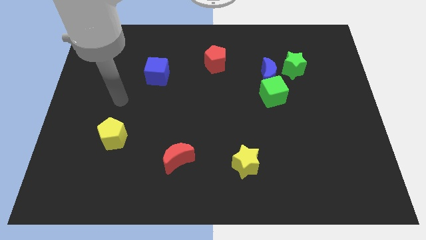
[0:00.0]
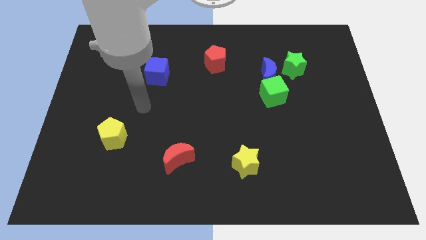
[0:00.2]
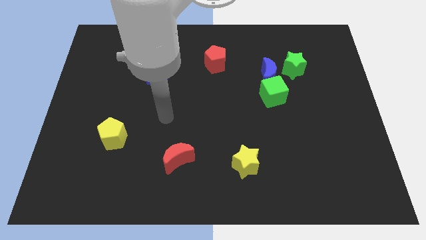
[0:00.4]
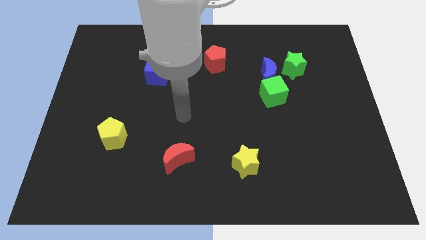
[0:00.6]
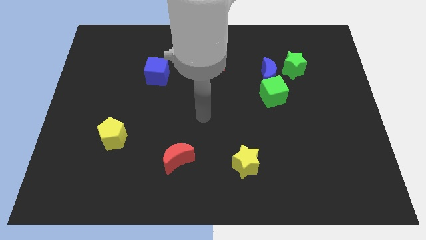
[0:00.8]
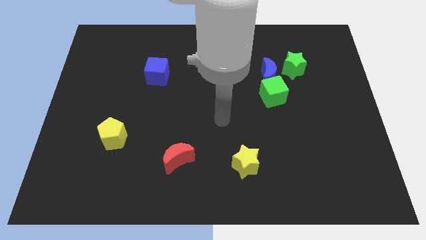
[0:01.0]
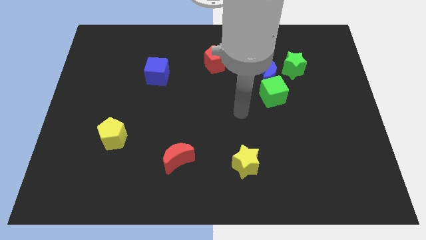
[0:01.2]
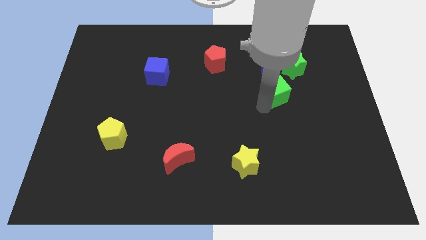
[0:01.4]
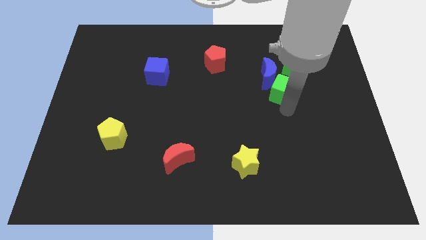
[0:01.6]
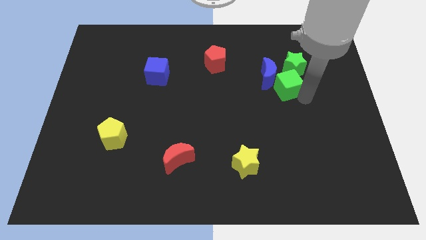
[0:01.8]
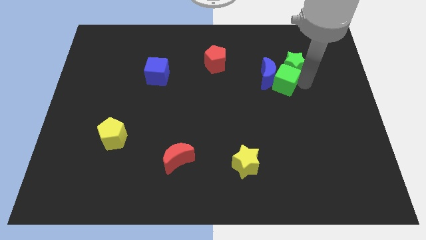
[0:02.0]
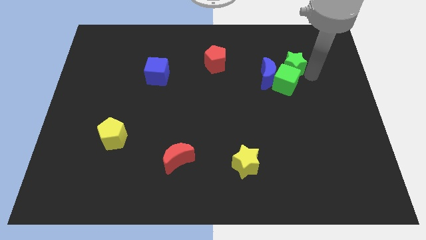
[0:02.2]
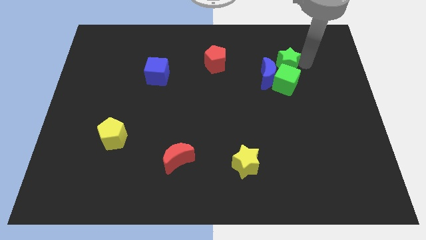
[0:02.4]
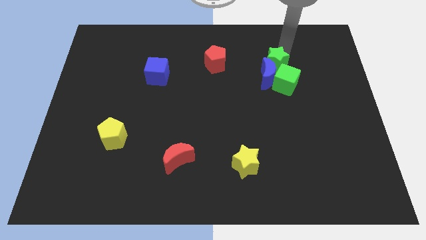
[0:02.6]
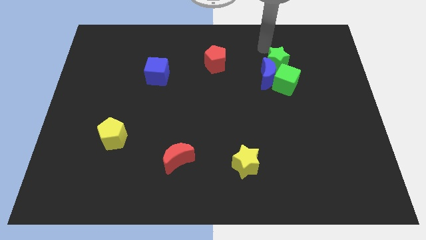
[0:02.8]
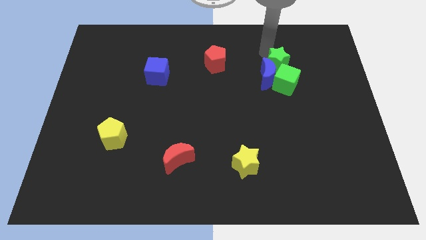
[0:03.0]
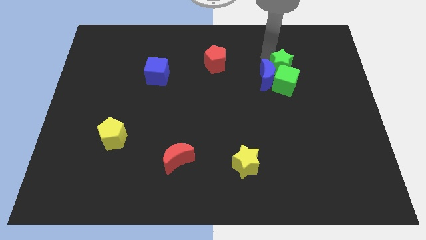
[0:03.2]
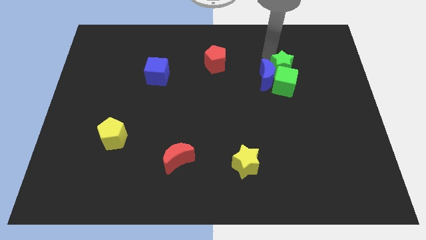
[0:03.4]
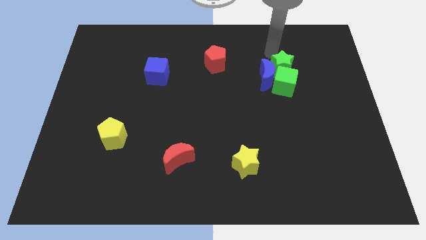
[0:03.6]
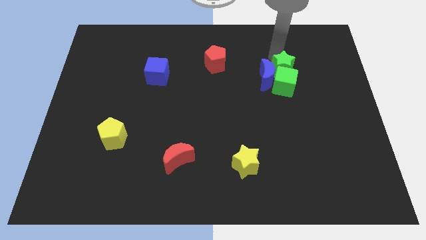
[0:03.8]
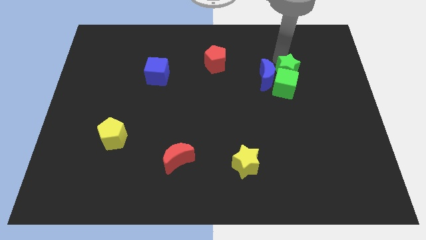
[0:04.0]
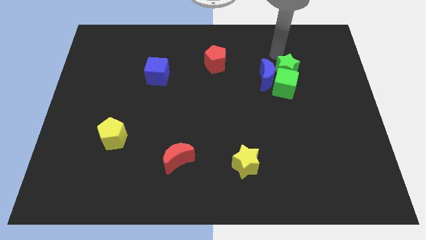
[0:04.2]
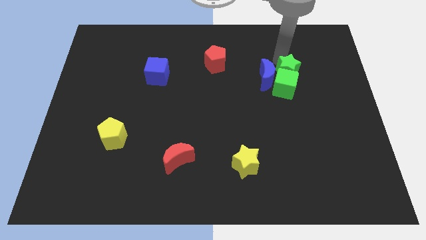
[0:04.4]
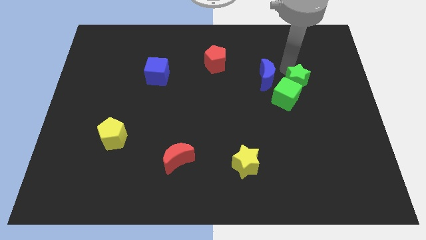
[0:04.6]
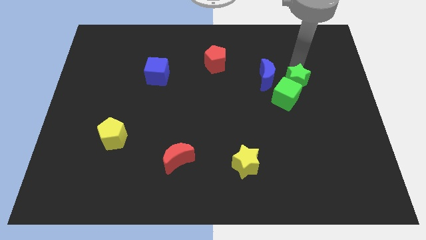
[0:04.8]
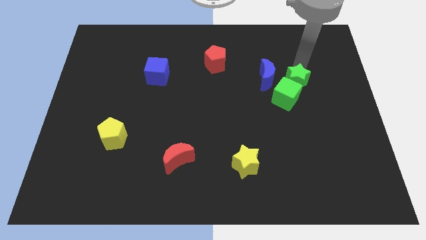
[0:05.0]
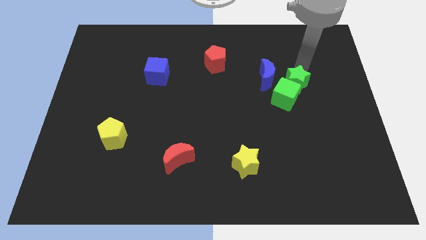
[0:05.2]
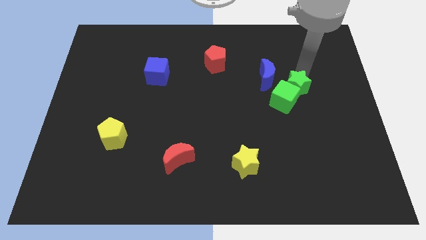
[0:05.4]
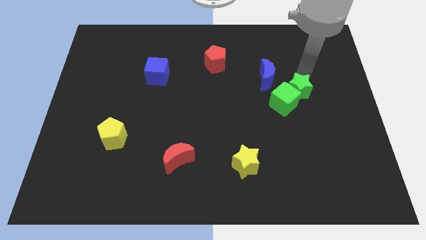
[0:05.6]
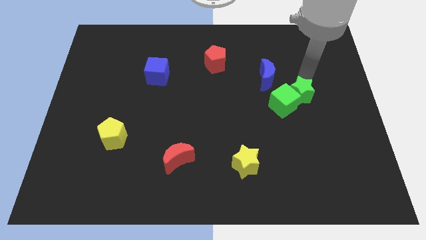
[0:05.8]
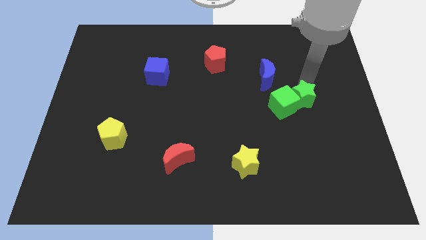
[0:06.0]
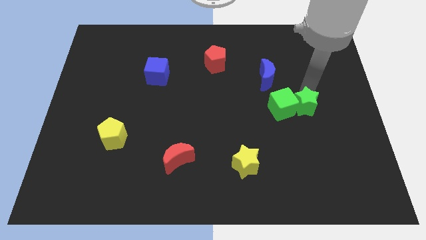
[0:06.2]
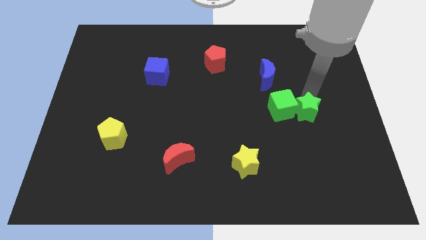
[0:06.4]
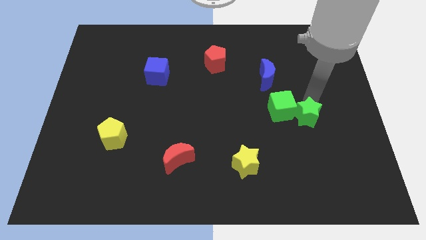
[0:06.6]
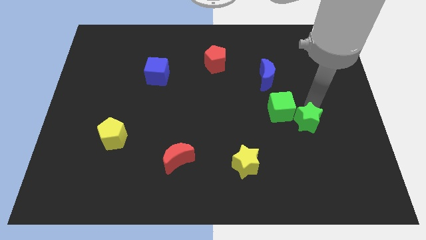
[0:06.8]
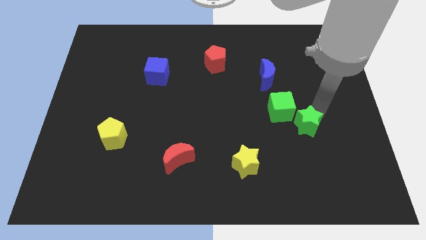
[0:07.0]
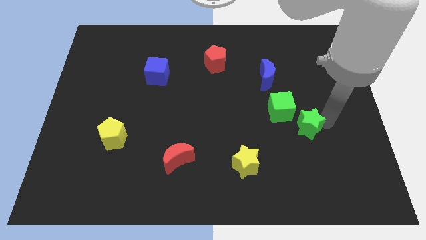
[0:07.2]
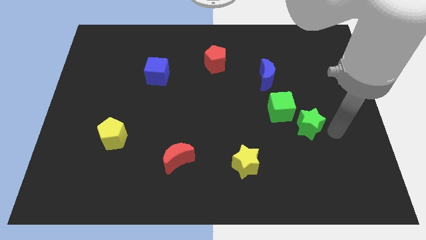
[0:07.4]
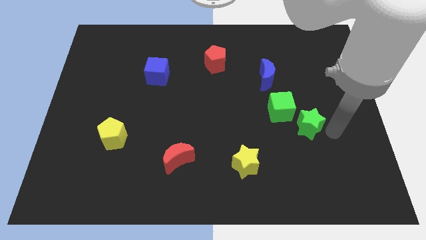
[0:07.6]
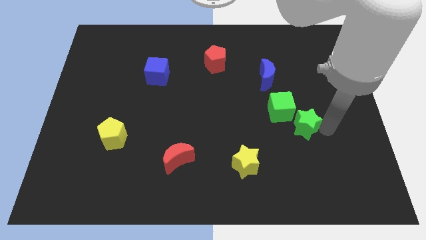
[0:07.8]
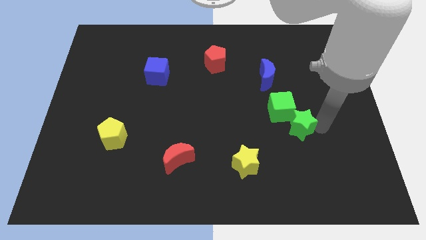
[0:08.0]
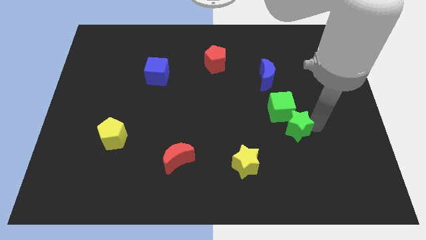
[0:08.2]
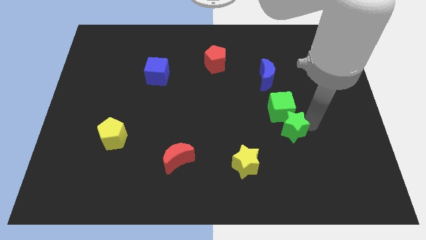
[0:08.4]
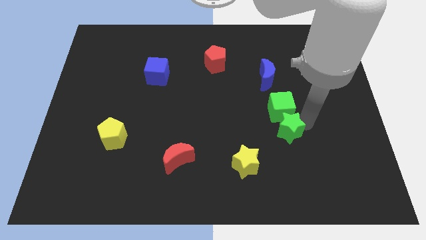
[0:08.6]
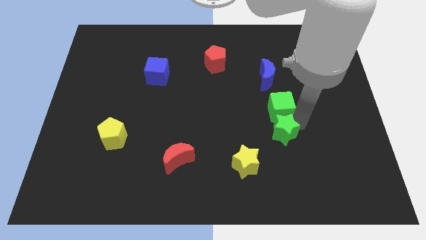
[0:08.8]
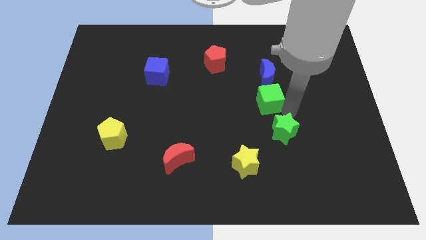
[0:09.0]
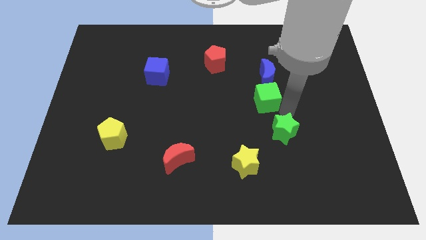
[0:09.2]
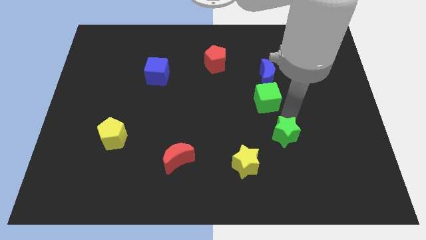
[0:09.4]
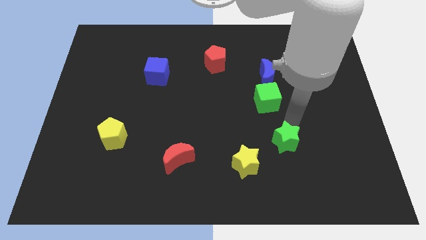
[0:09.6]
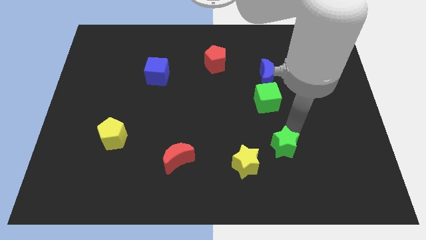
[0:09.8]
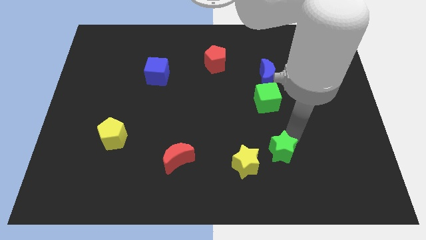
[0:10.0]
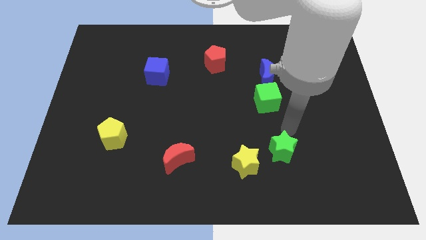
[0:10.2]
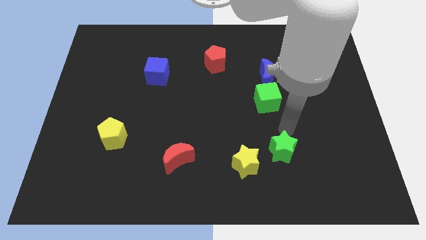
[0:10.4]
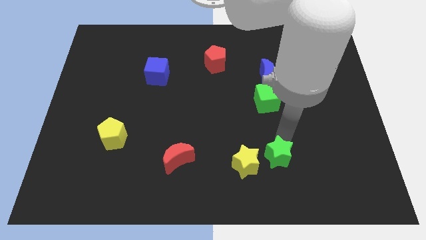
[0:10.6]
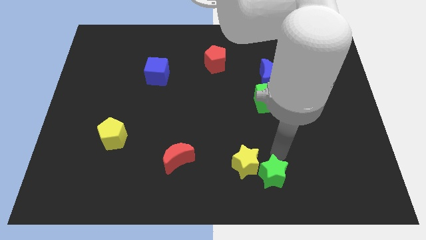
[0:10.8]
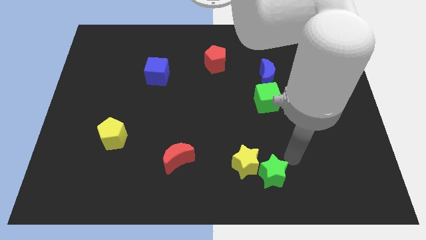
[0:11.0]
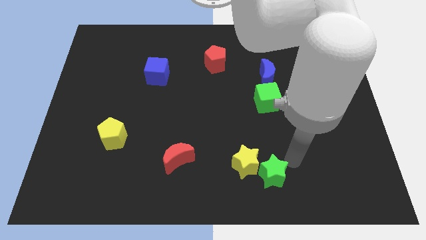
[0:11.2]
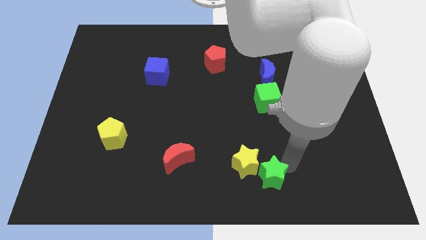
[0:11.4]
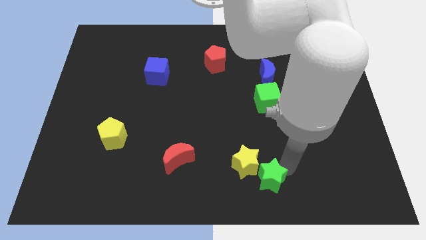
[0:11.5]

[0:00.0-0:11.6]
slide the green star to the bottom

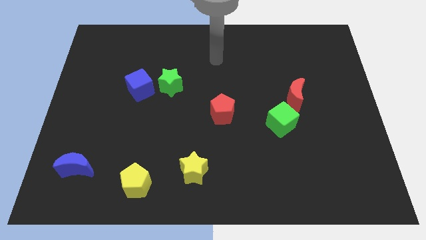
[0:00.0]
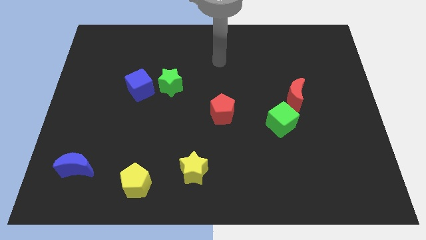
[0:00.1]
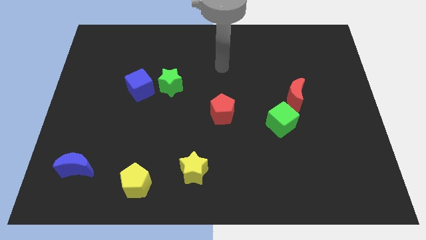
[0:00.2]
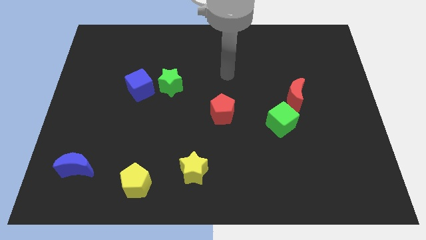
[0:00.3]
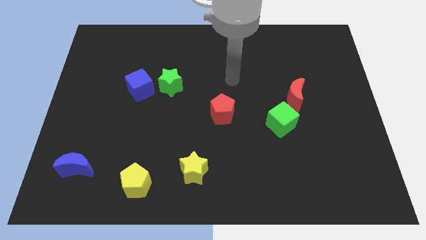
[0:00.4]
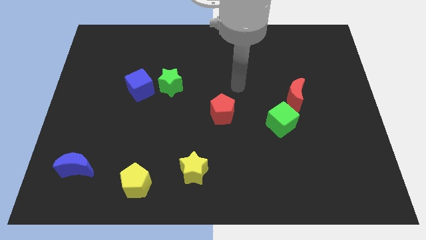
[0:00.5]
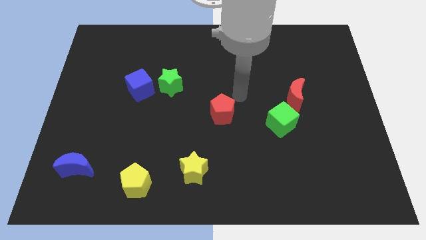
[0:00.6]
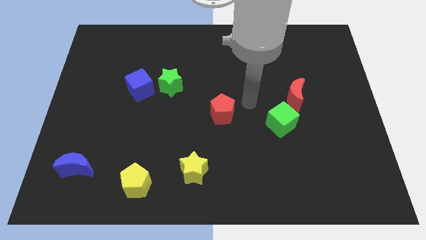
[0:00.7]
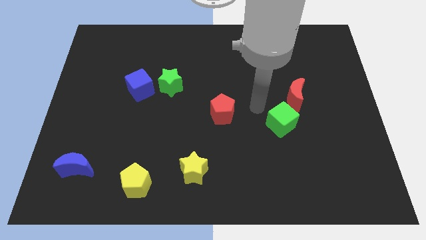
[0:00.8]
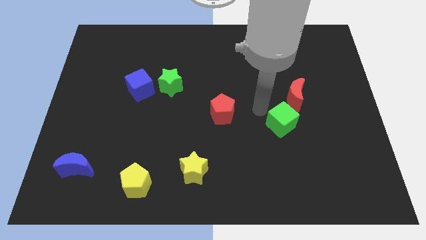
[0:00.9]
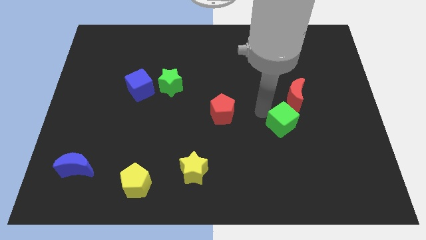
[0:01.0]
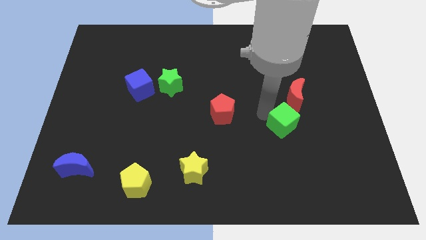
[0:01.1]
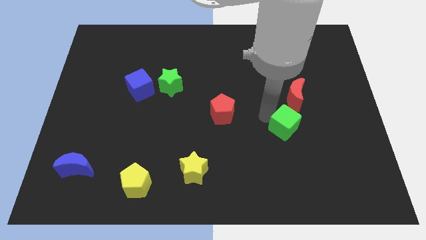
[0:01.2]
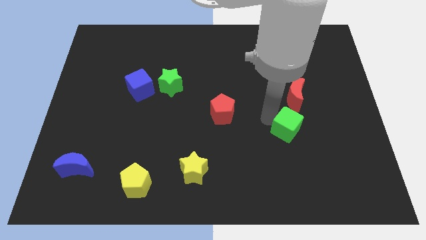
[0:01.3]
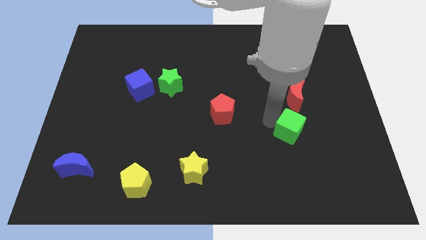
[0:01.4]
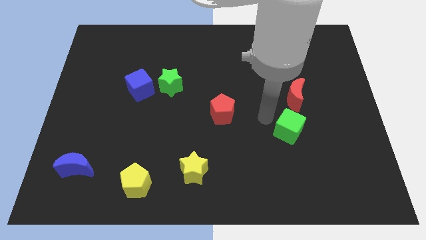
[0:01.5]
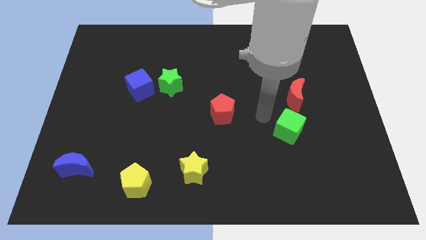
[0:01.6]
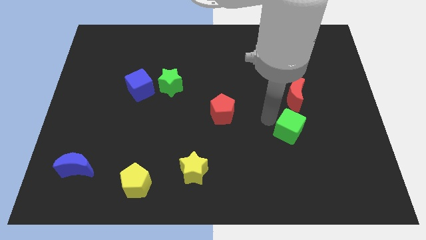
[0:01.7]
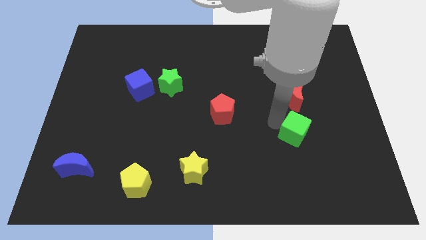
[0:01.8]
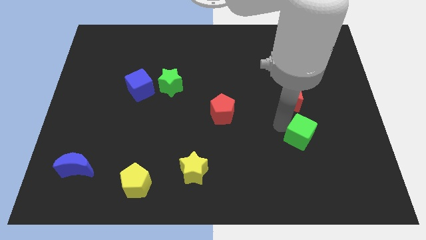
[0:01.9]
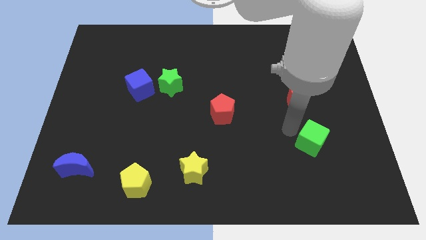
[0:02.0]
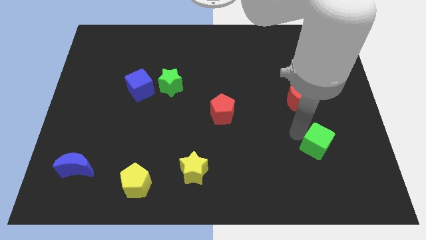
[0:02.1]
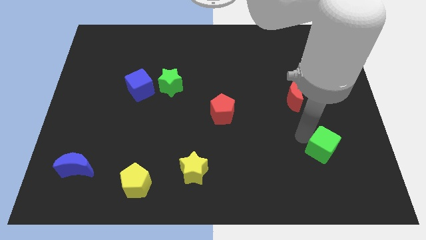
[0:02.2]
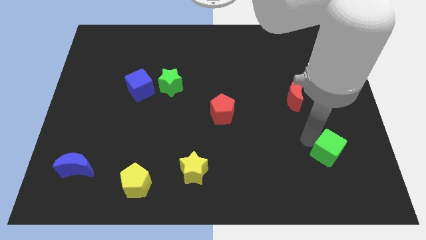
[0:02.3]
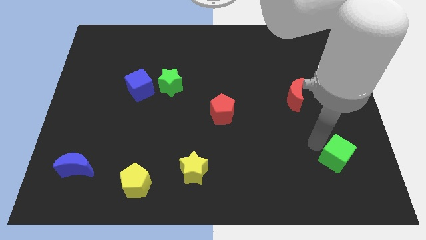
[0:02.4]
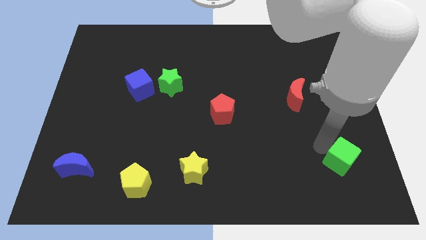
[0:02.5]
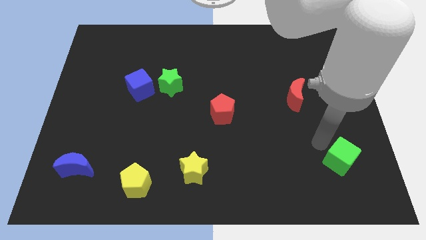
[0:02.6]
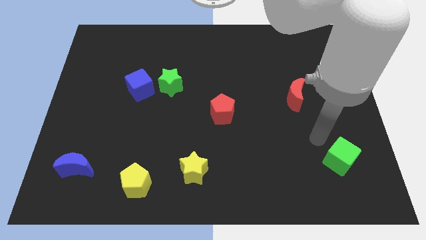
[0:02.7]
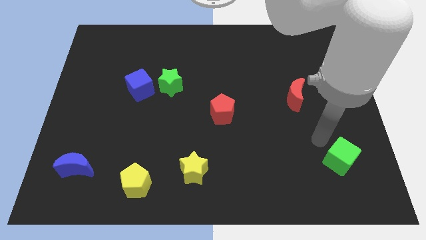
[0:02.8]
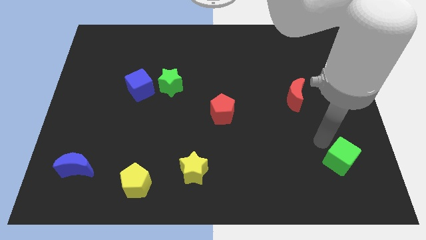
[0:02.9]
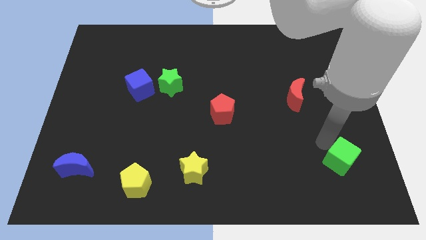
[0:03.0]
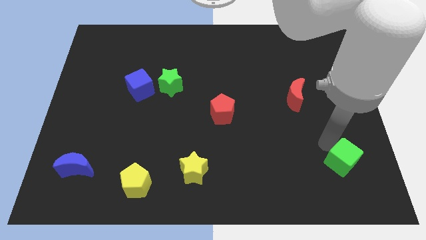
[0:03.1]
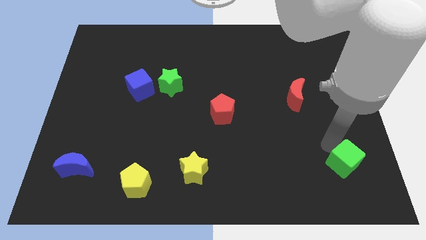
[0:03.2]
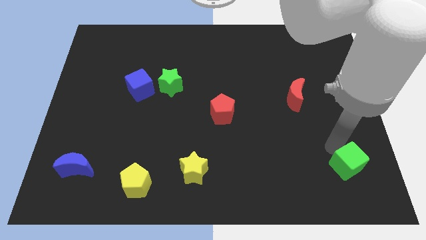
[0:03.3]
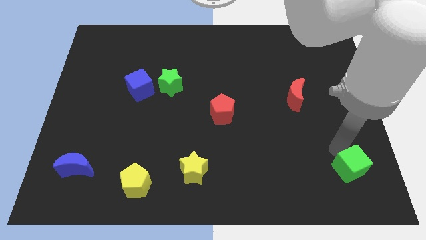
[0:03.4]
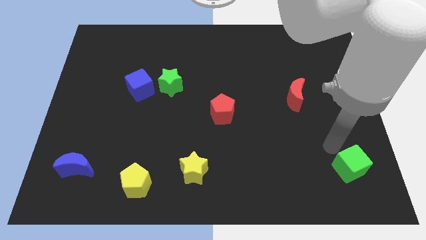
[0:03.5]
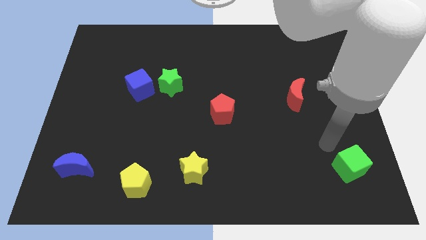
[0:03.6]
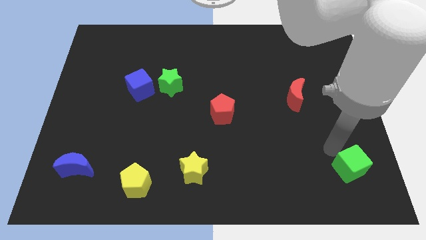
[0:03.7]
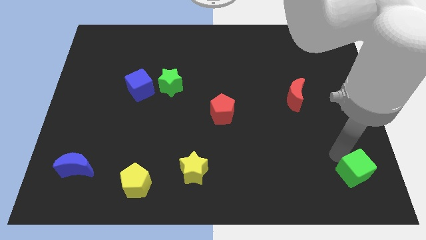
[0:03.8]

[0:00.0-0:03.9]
slide the green cube to the lower right corner
